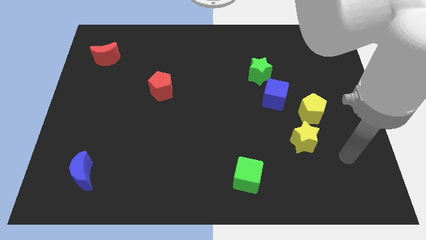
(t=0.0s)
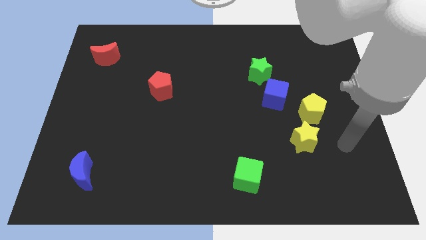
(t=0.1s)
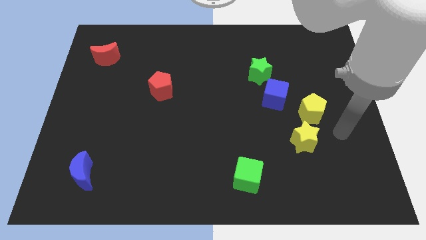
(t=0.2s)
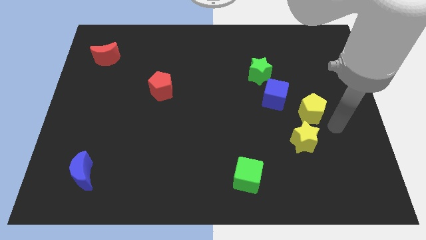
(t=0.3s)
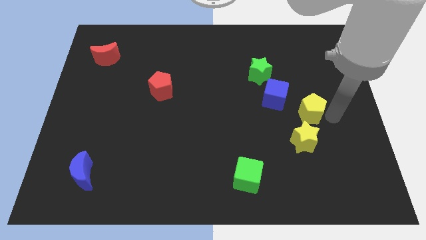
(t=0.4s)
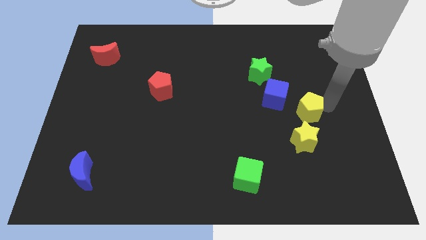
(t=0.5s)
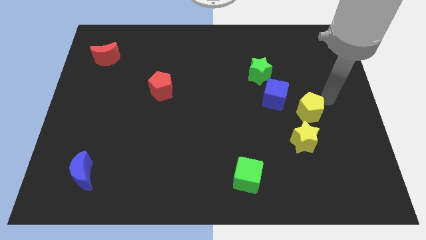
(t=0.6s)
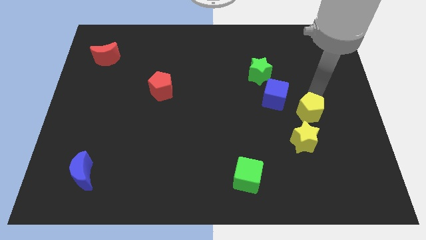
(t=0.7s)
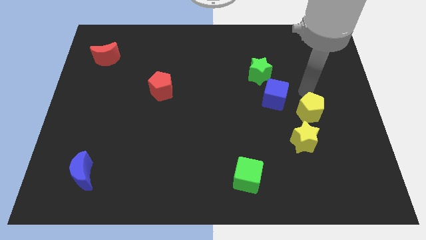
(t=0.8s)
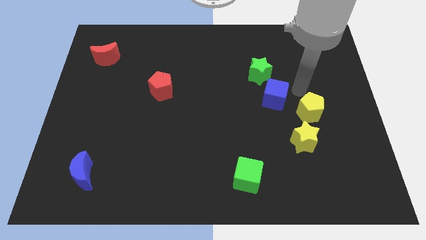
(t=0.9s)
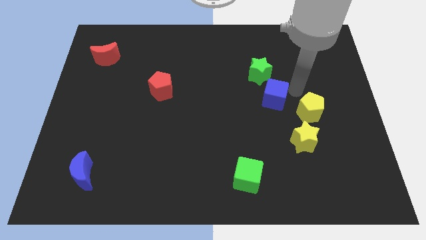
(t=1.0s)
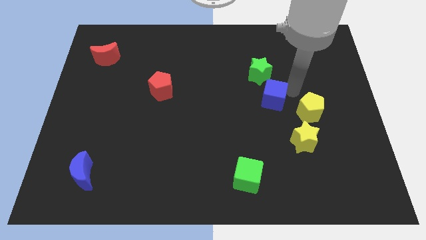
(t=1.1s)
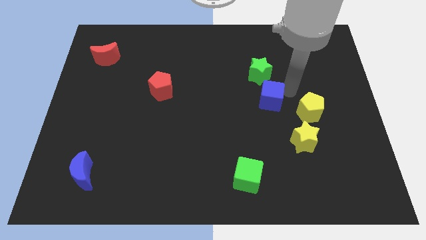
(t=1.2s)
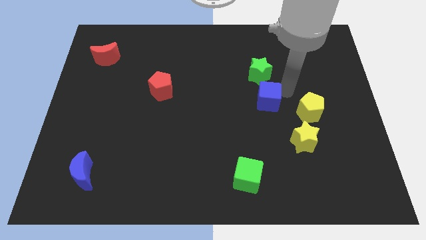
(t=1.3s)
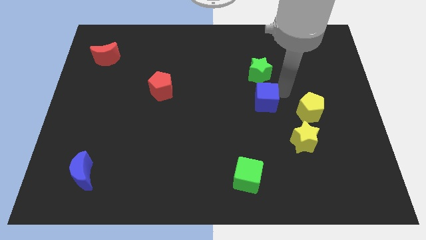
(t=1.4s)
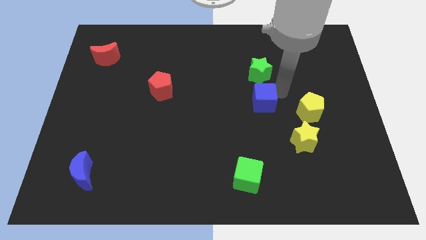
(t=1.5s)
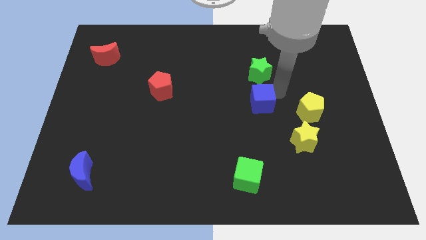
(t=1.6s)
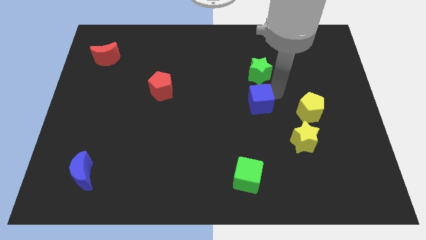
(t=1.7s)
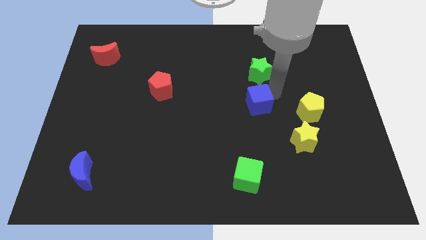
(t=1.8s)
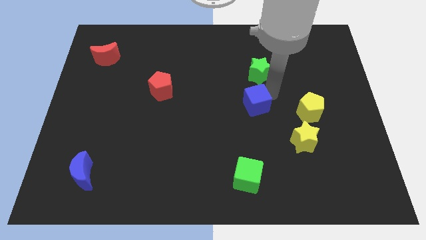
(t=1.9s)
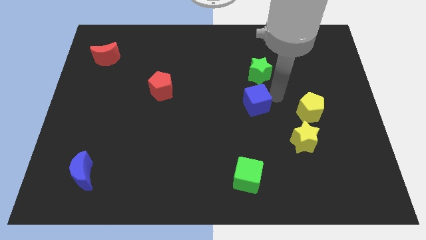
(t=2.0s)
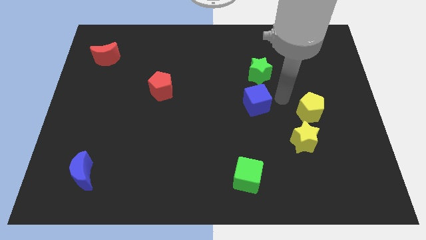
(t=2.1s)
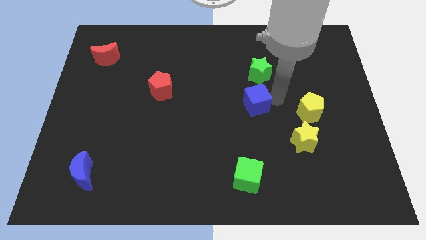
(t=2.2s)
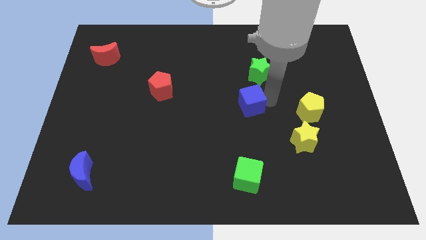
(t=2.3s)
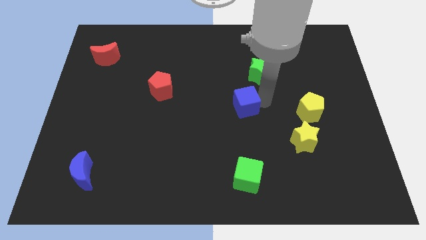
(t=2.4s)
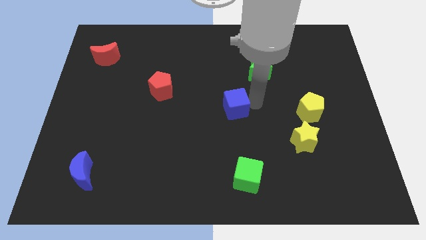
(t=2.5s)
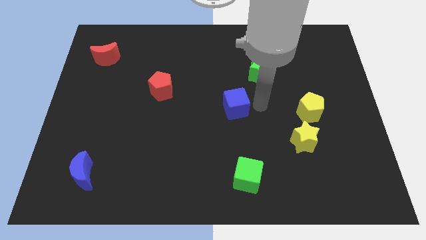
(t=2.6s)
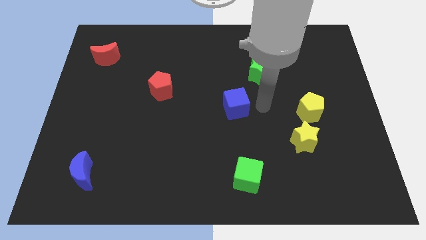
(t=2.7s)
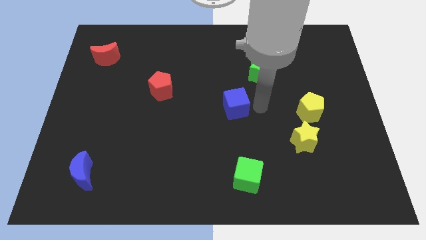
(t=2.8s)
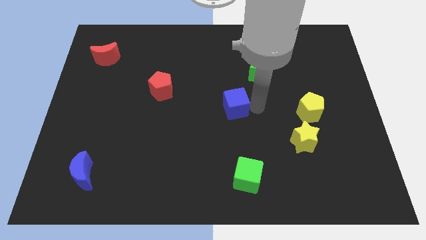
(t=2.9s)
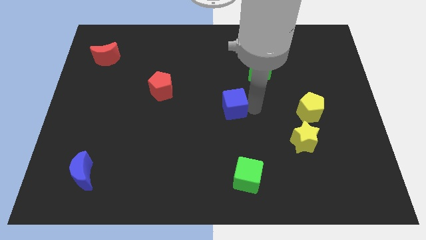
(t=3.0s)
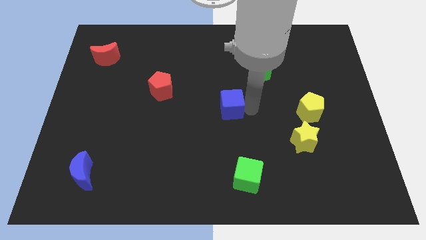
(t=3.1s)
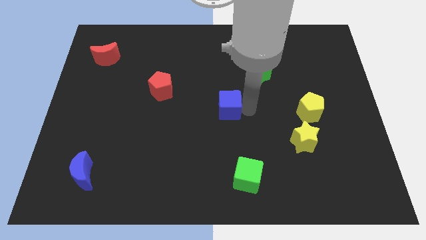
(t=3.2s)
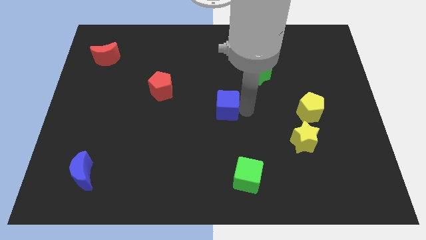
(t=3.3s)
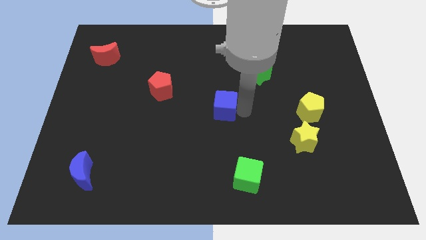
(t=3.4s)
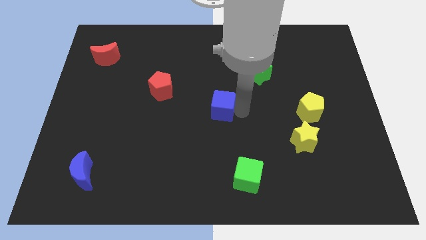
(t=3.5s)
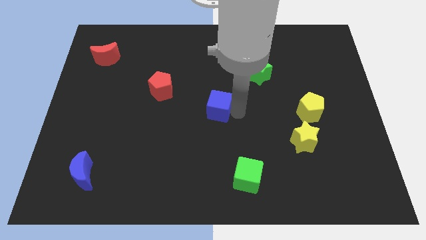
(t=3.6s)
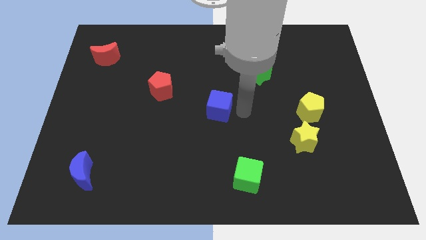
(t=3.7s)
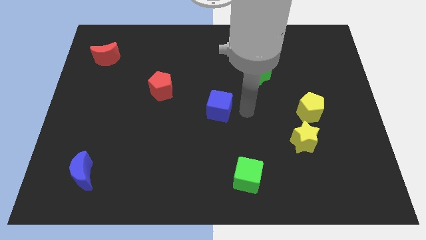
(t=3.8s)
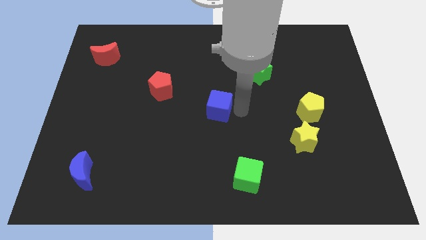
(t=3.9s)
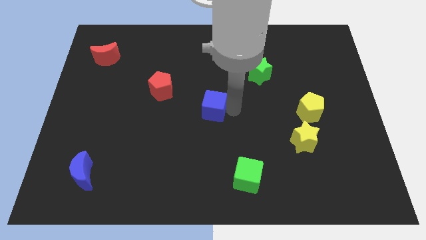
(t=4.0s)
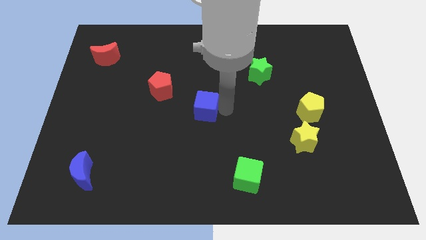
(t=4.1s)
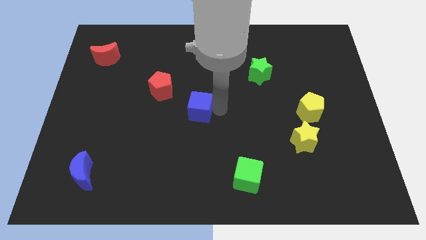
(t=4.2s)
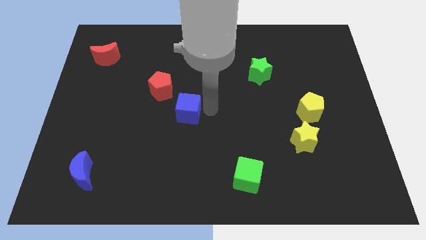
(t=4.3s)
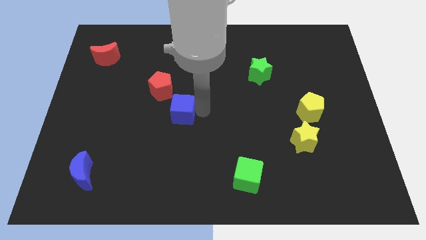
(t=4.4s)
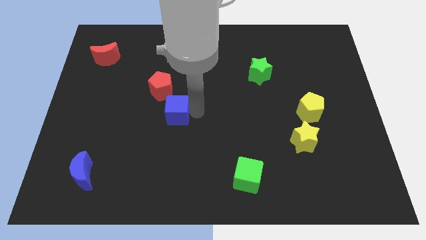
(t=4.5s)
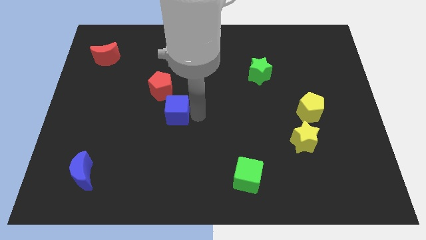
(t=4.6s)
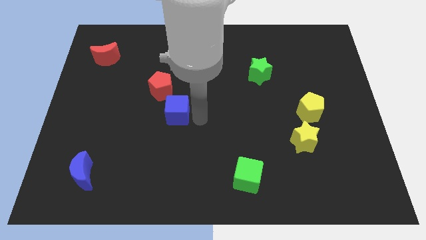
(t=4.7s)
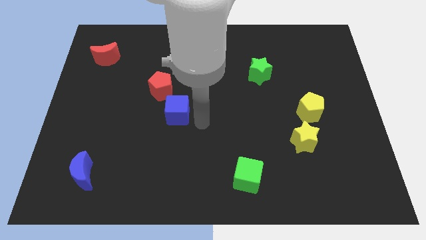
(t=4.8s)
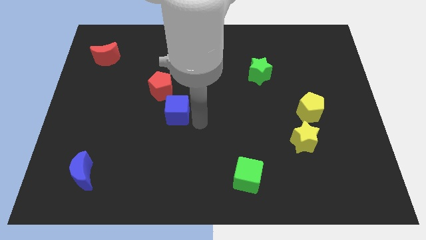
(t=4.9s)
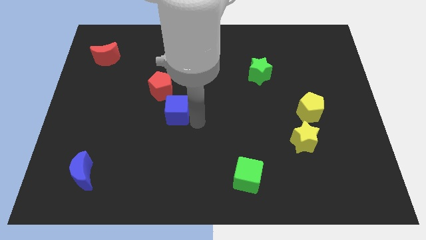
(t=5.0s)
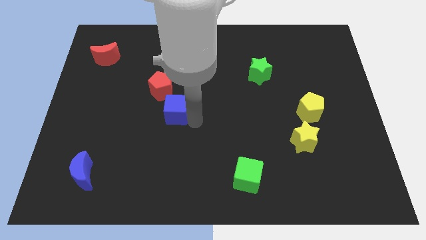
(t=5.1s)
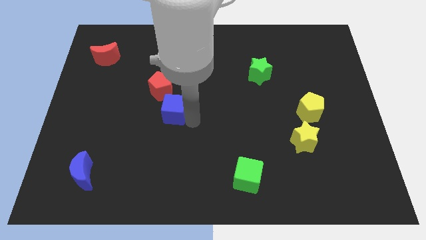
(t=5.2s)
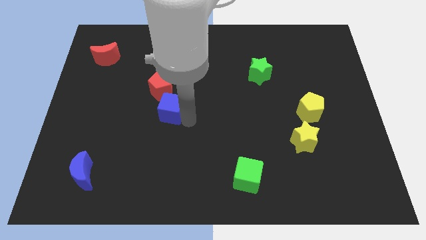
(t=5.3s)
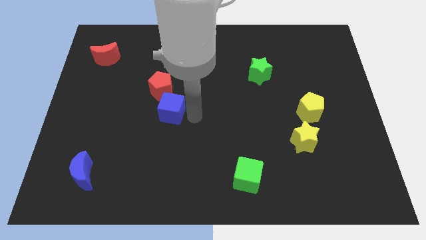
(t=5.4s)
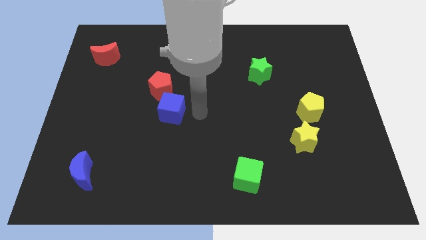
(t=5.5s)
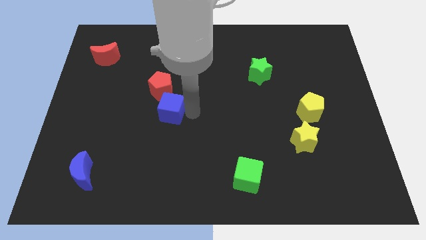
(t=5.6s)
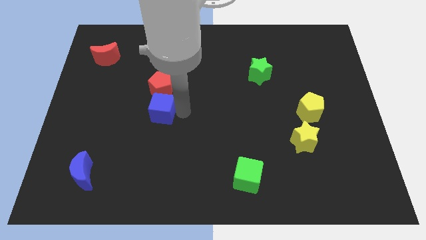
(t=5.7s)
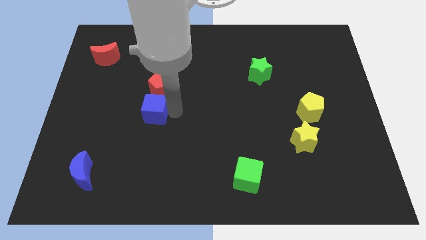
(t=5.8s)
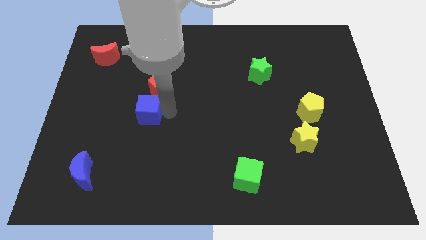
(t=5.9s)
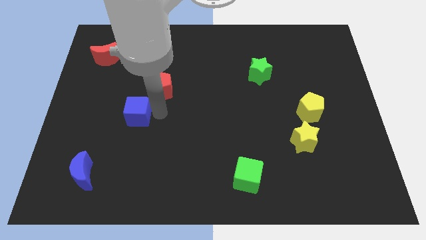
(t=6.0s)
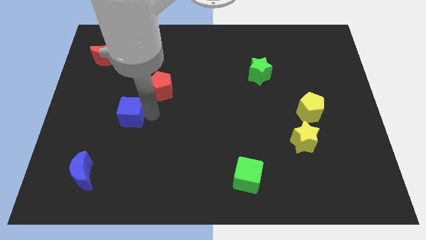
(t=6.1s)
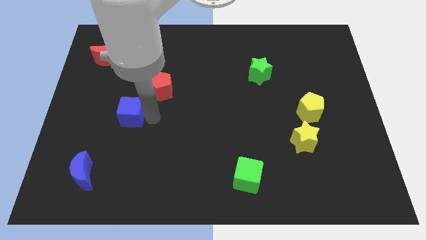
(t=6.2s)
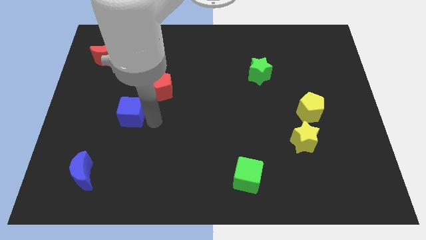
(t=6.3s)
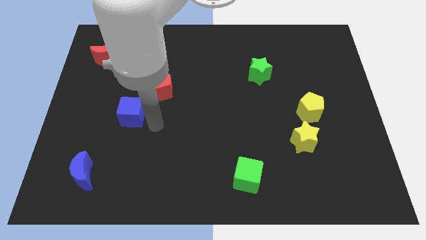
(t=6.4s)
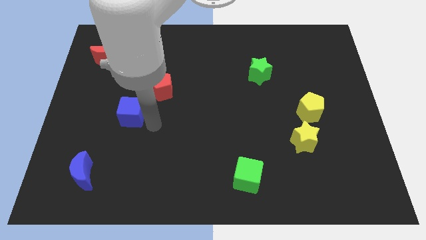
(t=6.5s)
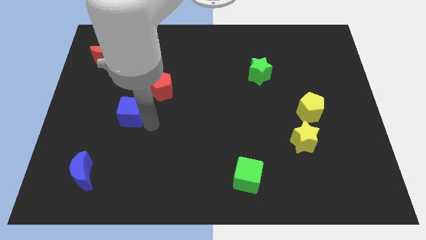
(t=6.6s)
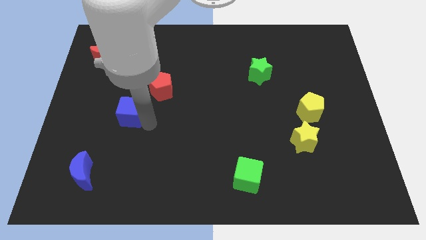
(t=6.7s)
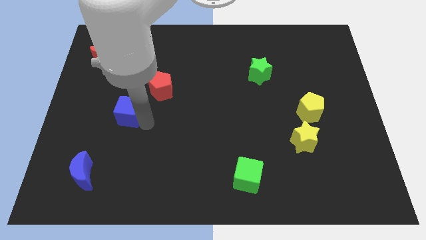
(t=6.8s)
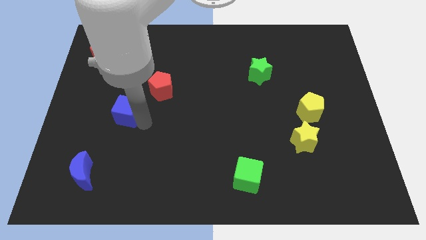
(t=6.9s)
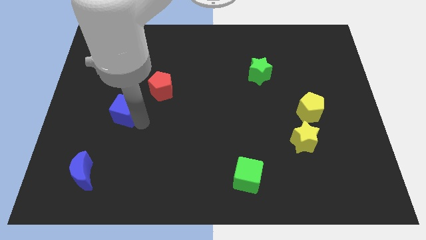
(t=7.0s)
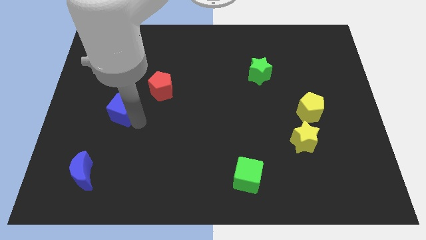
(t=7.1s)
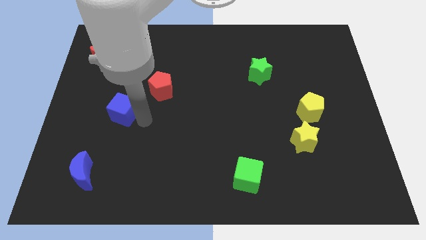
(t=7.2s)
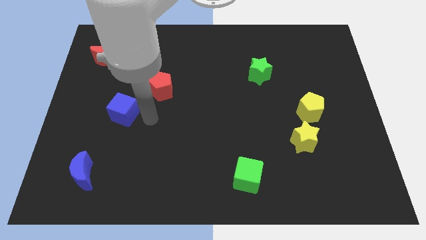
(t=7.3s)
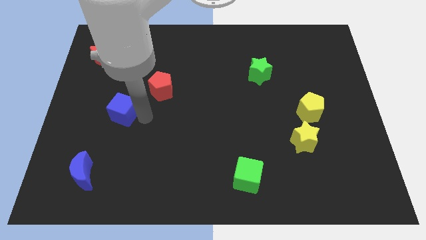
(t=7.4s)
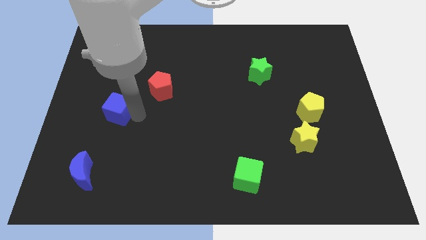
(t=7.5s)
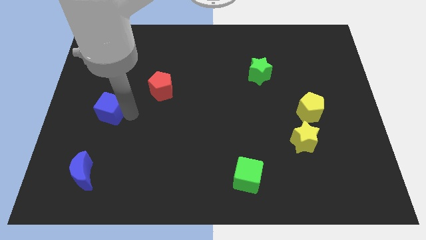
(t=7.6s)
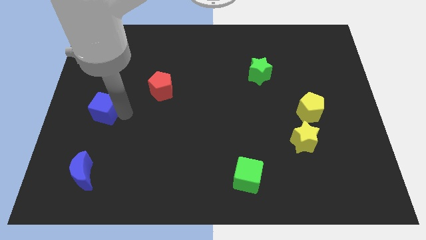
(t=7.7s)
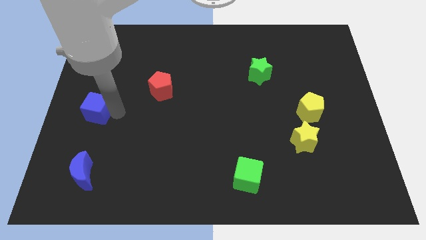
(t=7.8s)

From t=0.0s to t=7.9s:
push the blue cube to the left side
